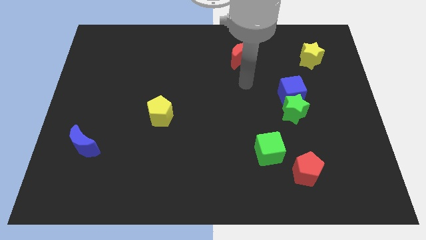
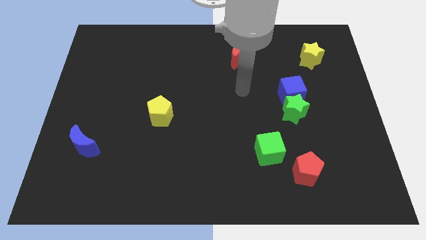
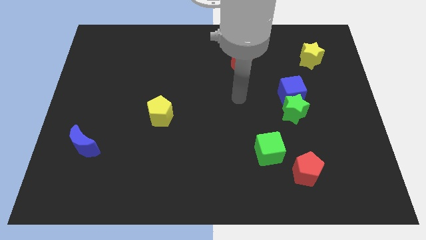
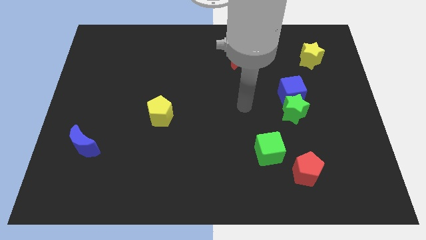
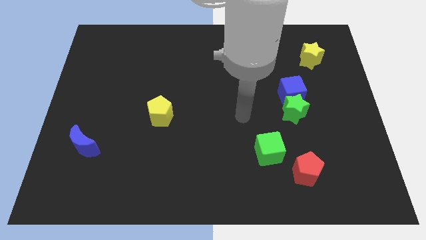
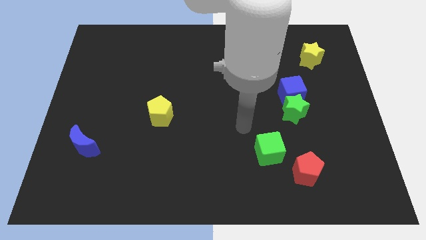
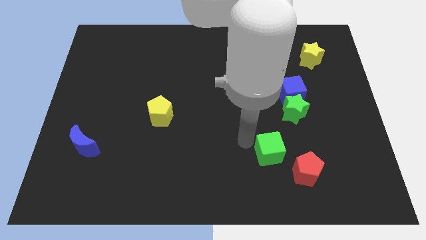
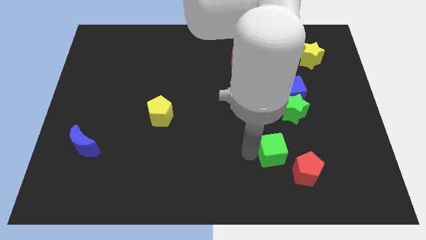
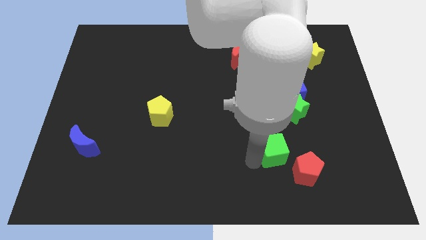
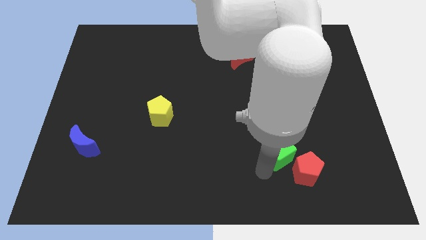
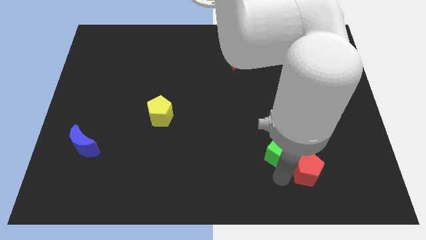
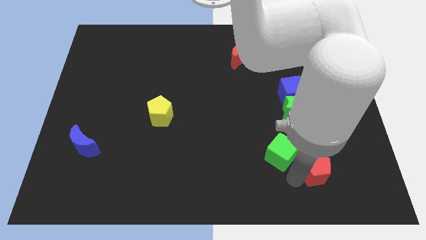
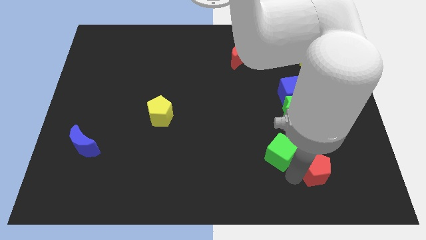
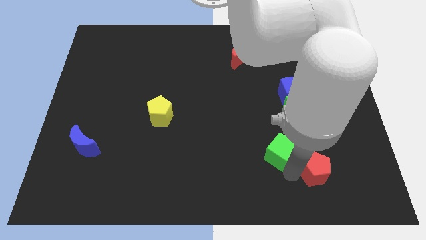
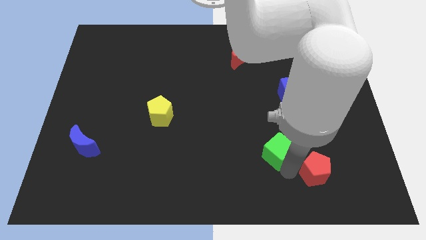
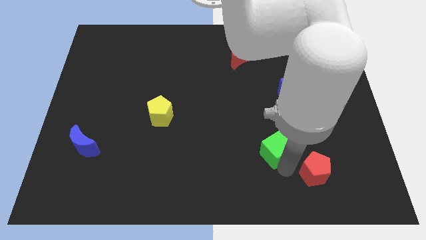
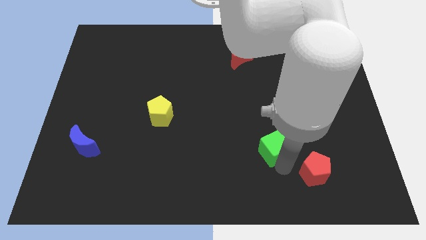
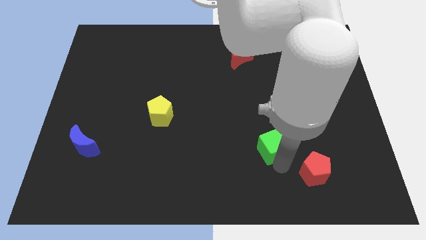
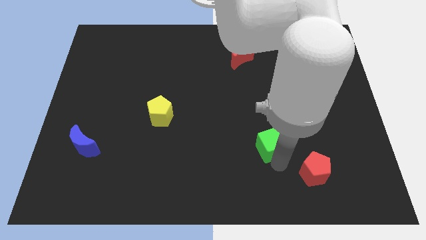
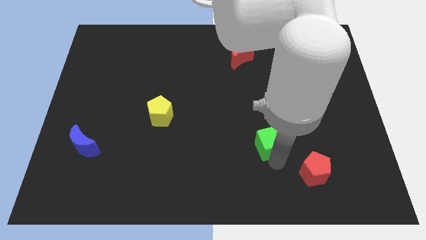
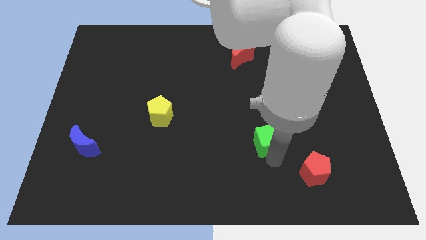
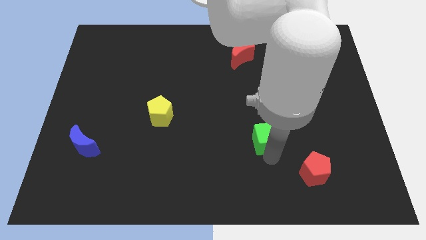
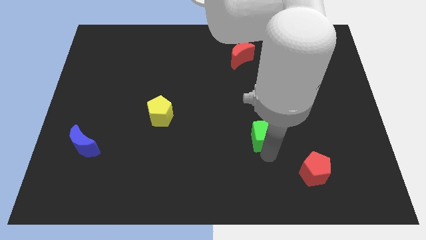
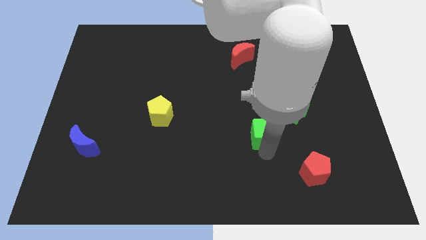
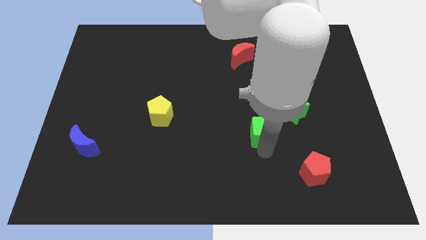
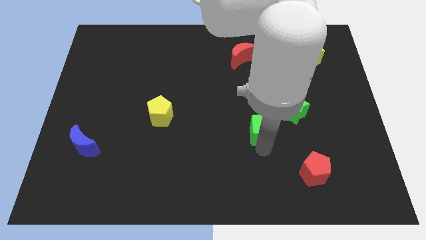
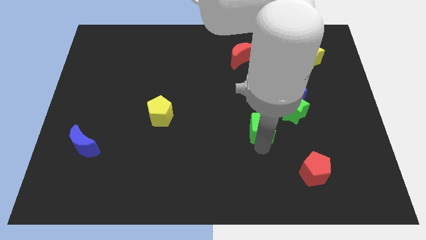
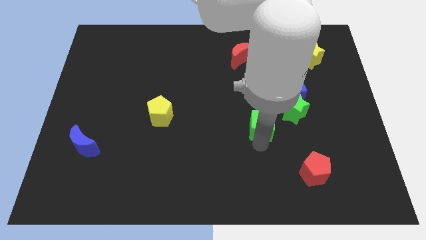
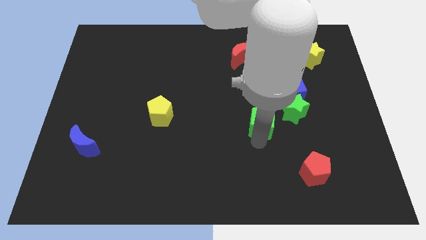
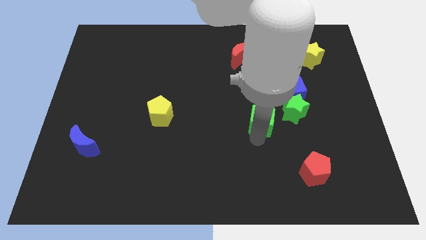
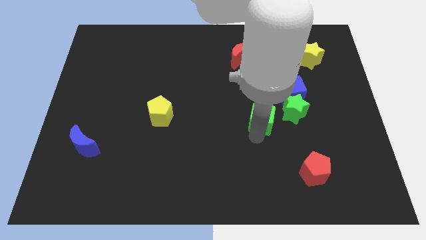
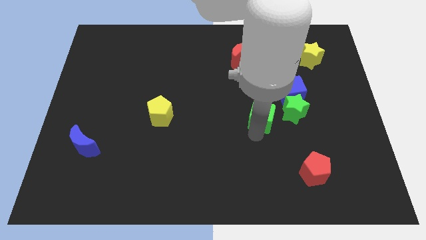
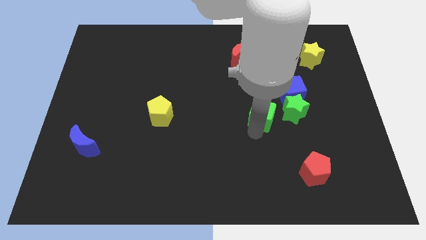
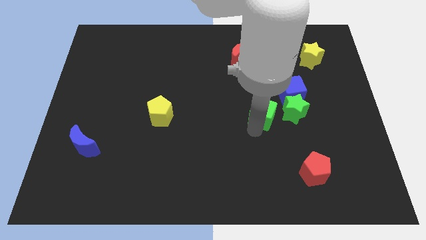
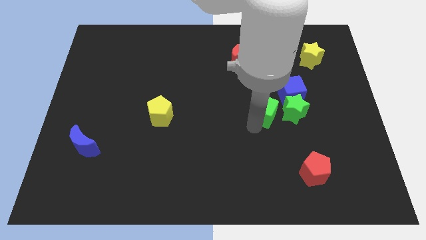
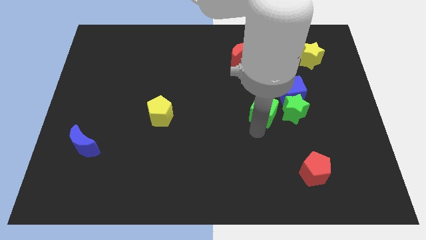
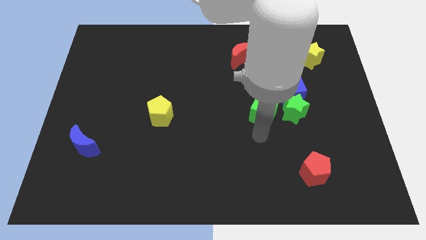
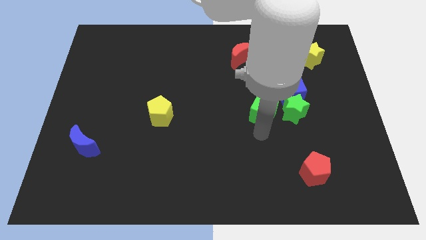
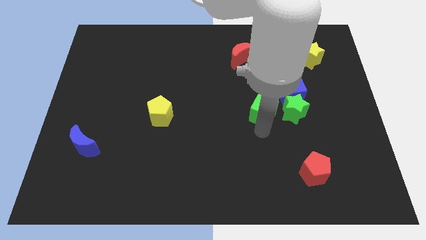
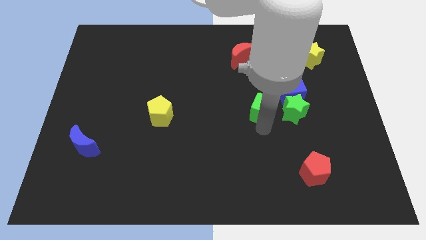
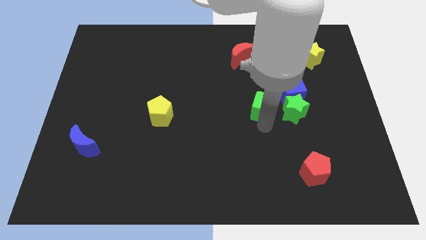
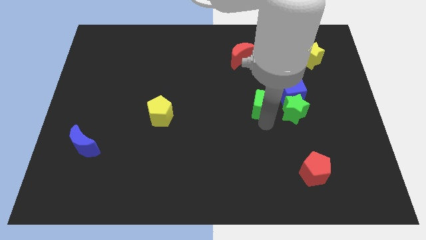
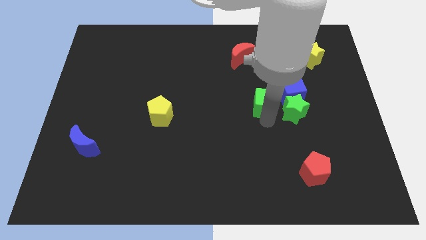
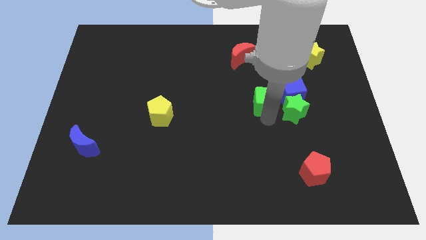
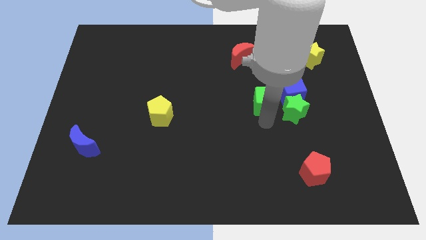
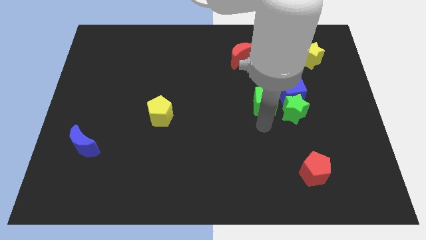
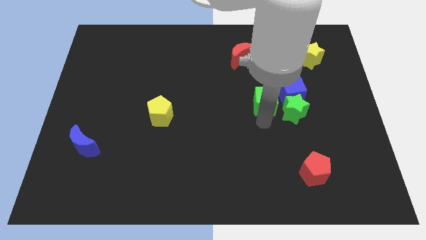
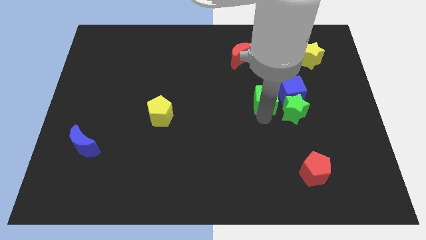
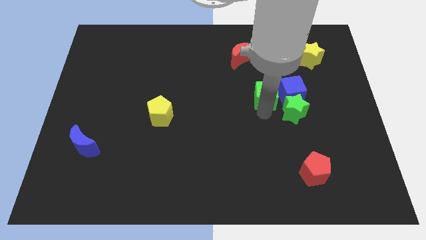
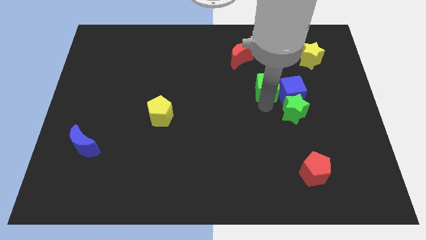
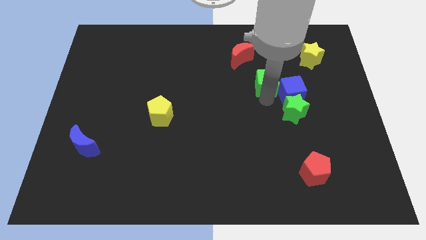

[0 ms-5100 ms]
move the green cube to the bottom right of the red moon

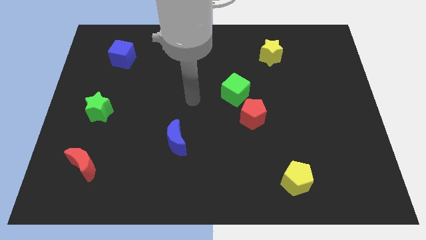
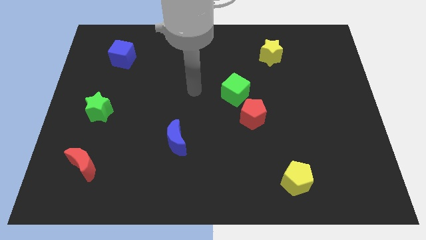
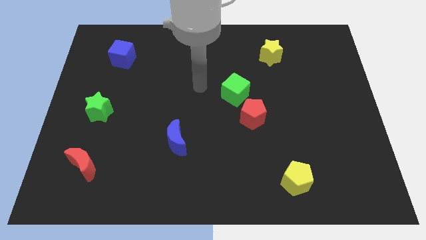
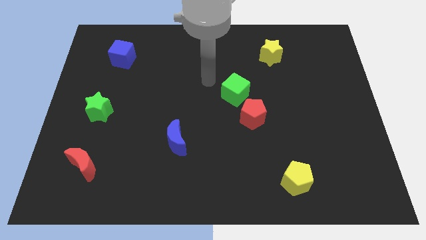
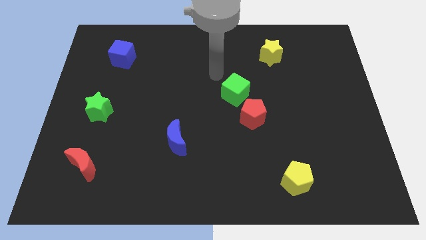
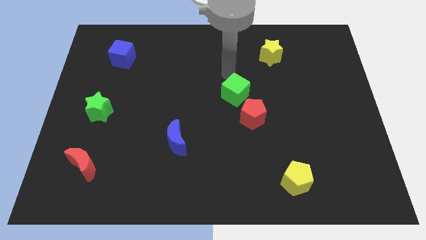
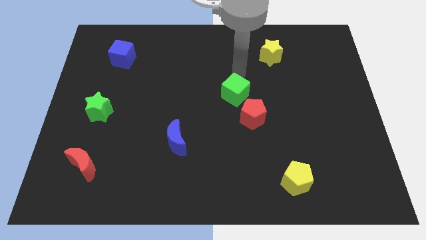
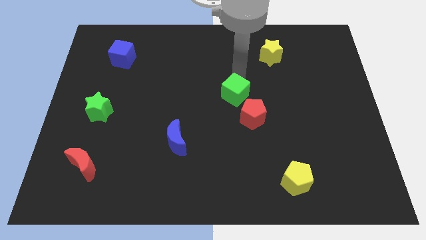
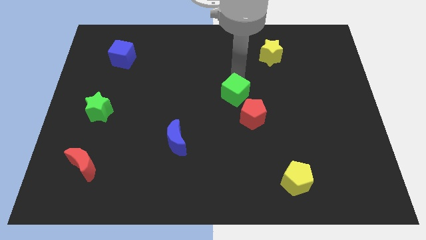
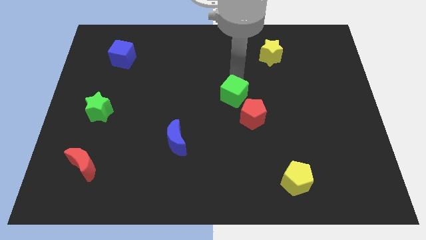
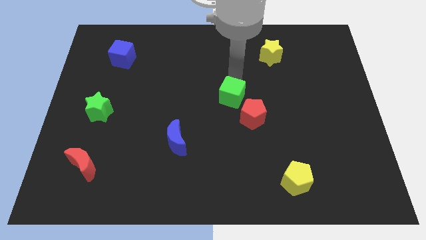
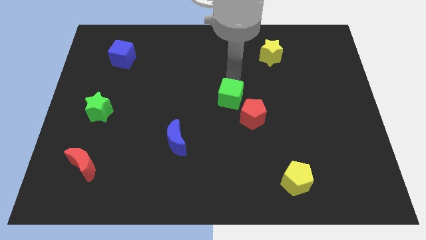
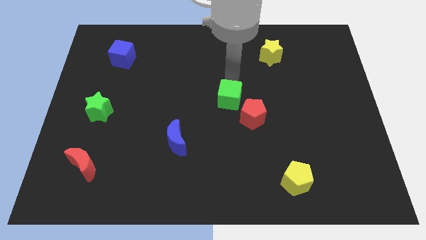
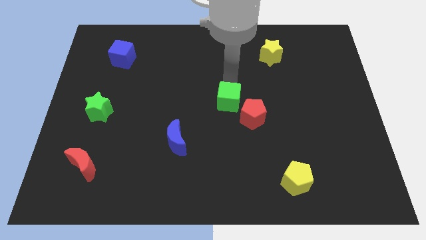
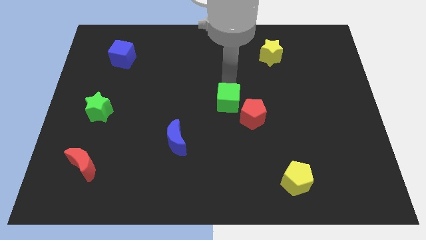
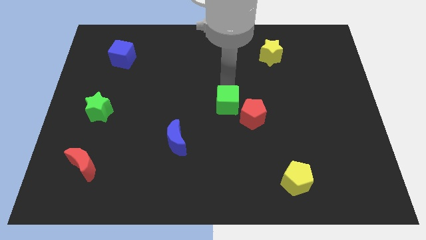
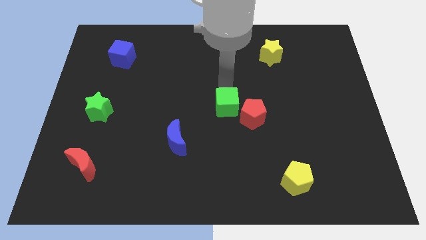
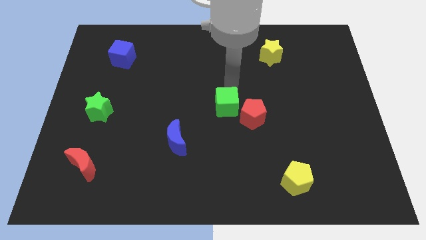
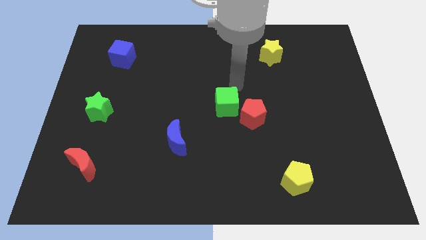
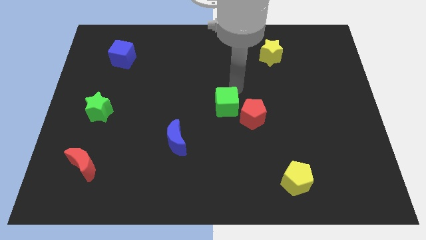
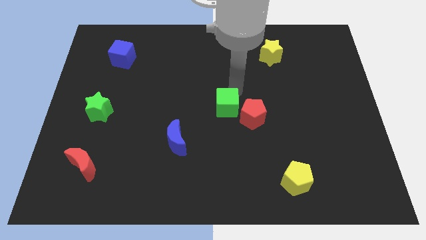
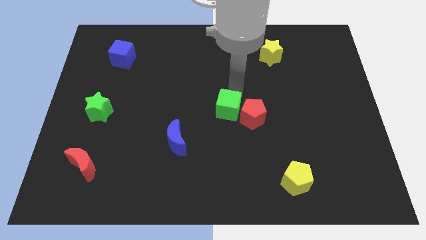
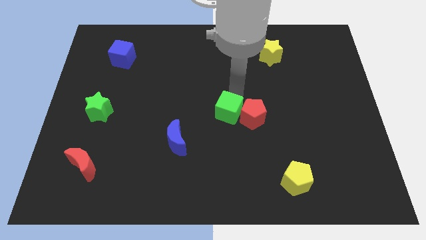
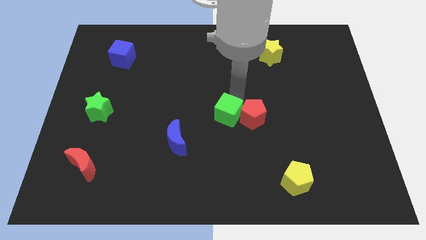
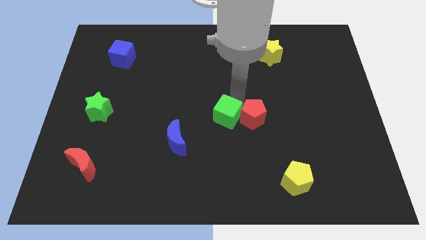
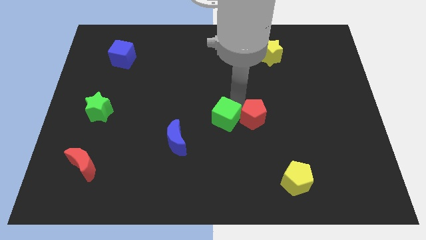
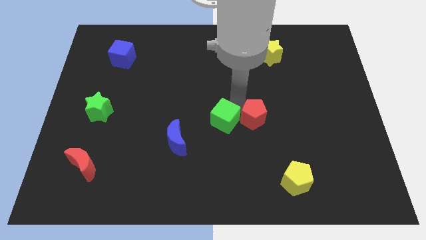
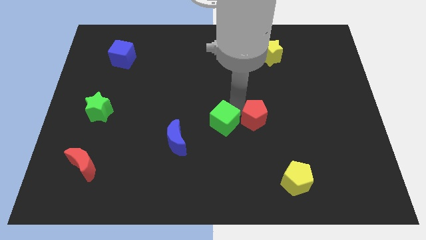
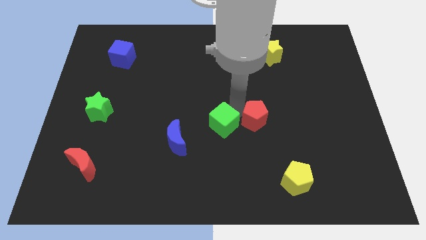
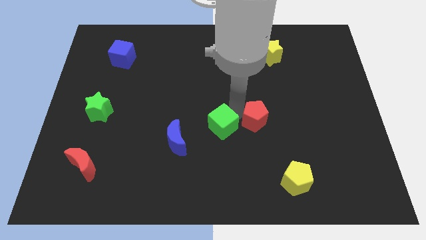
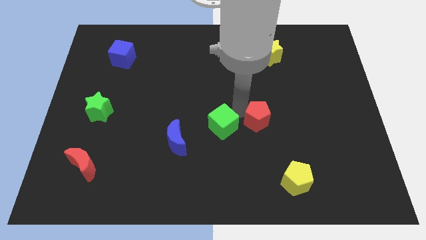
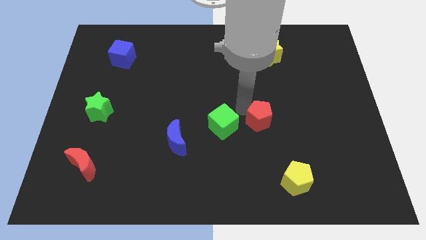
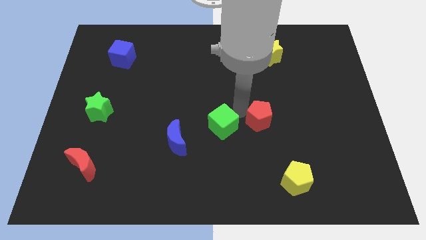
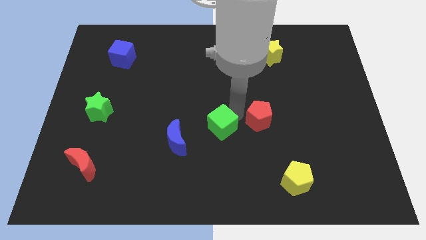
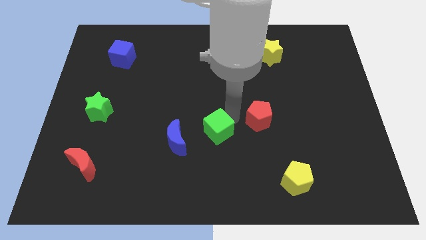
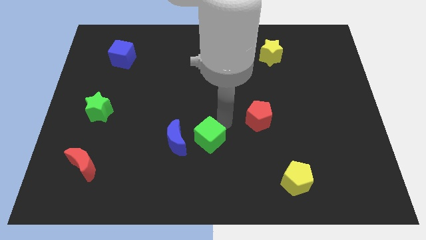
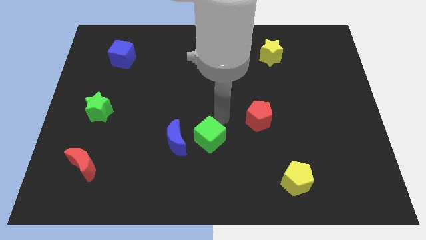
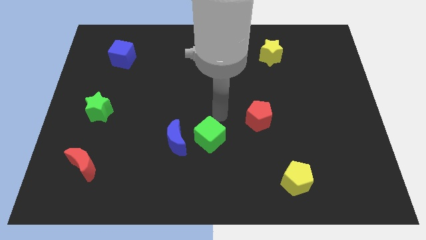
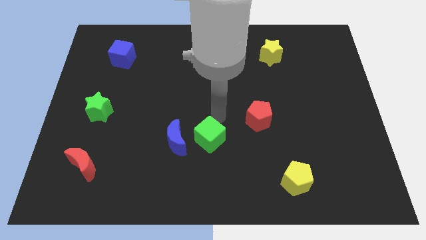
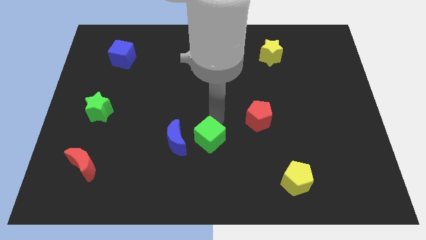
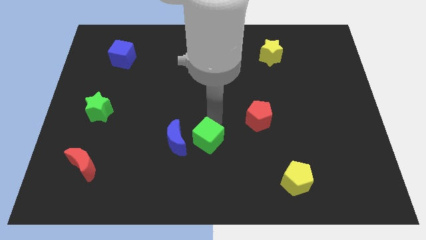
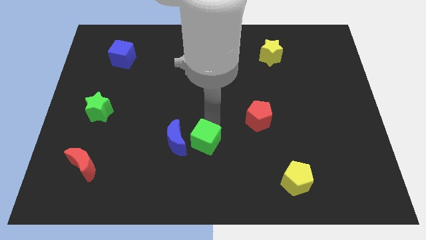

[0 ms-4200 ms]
move the green cube diagonally down and to the right of the blue moon
